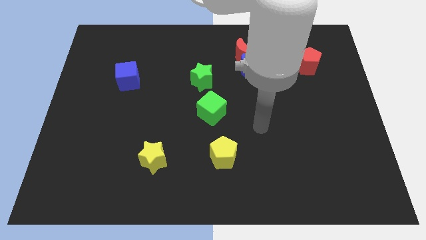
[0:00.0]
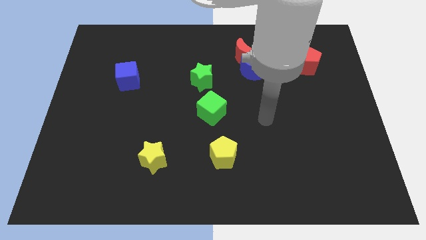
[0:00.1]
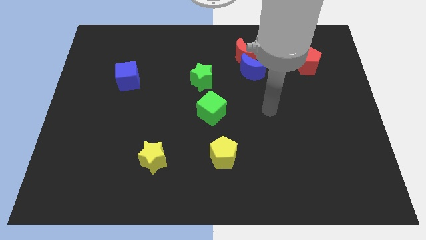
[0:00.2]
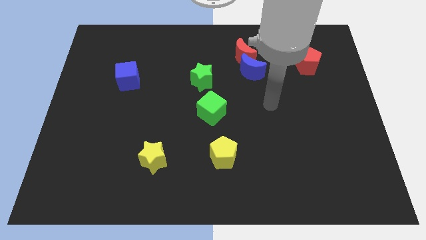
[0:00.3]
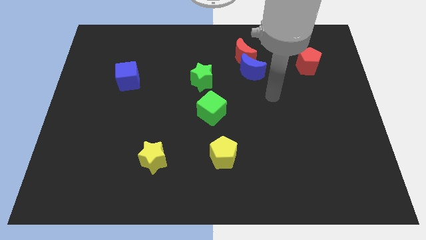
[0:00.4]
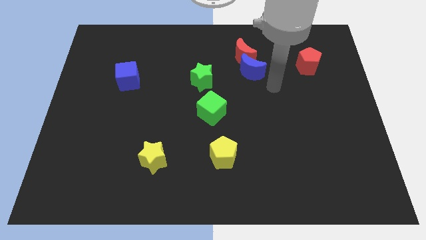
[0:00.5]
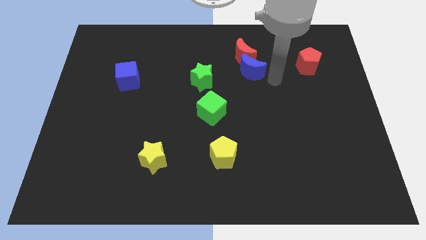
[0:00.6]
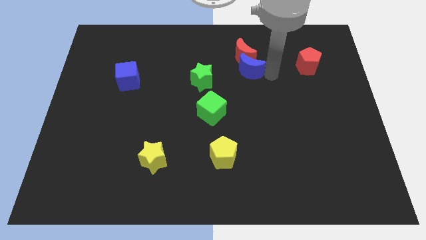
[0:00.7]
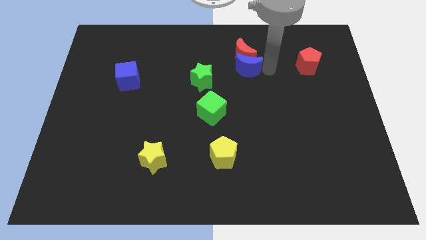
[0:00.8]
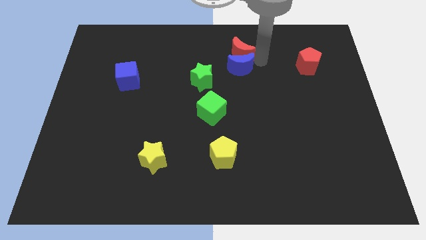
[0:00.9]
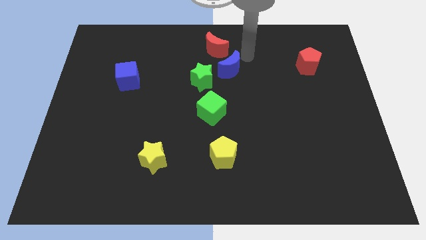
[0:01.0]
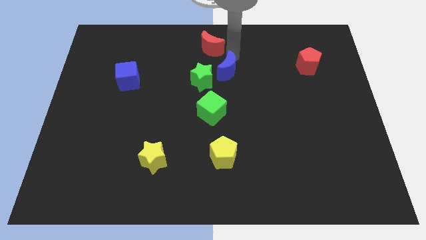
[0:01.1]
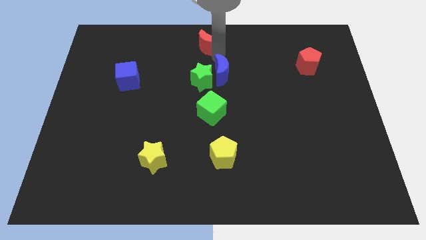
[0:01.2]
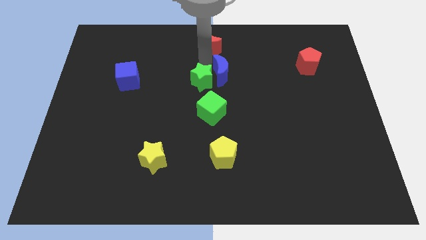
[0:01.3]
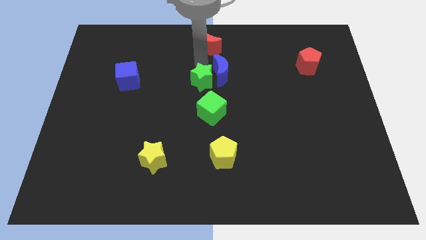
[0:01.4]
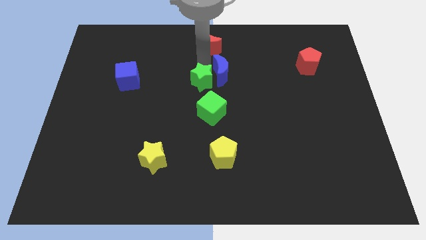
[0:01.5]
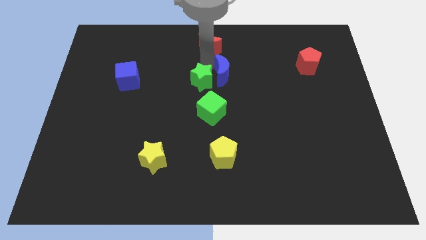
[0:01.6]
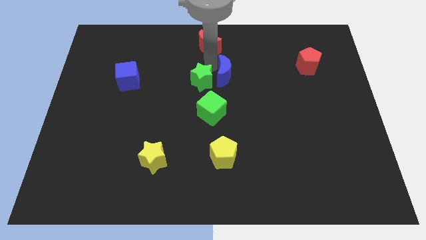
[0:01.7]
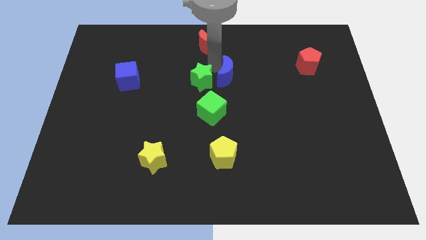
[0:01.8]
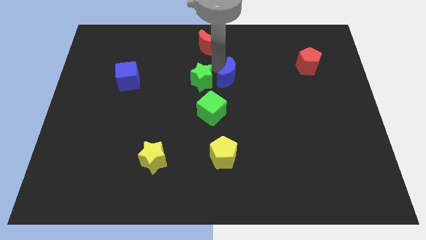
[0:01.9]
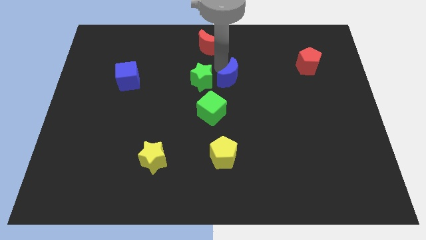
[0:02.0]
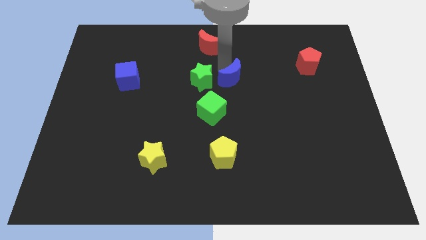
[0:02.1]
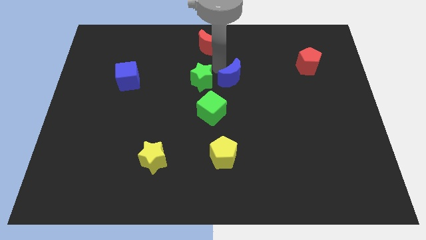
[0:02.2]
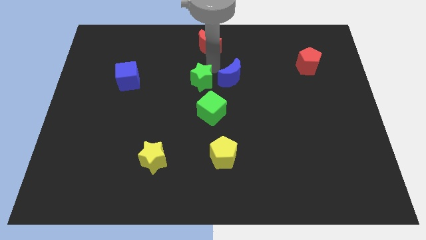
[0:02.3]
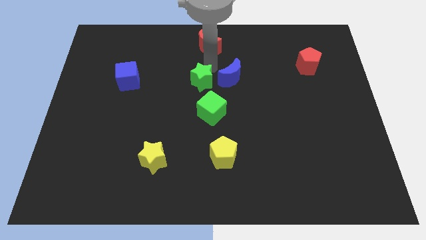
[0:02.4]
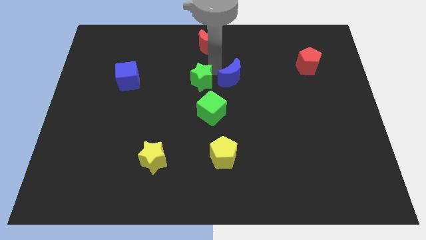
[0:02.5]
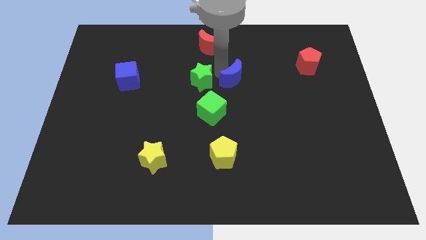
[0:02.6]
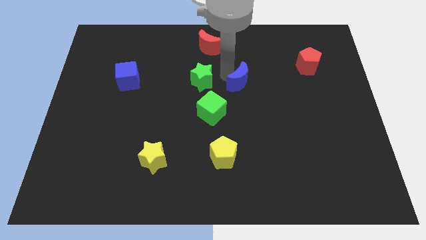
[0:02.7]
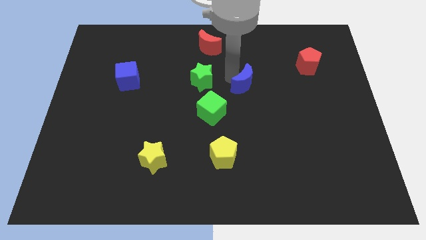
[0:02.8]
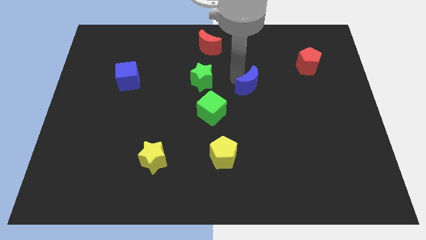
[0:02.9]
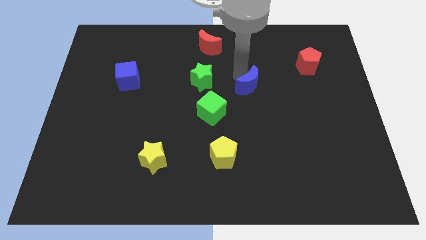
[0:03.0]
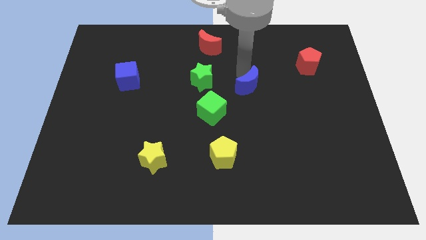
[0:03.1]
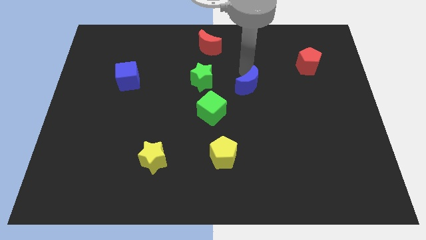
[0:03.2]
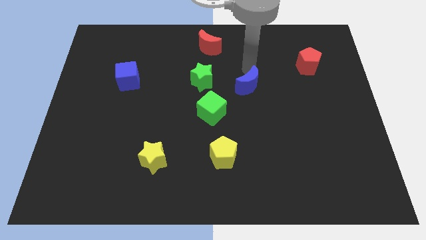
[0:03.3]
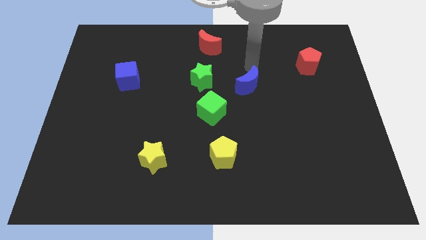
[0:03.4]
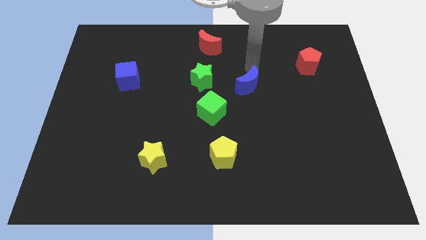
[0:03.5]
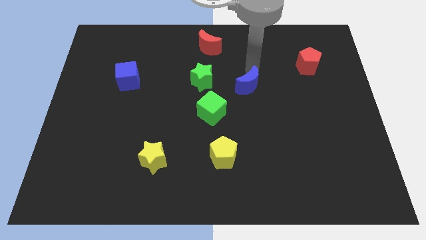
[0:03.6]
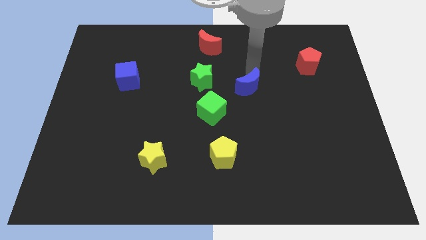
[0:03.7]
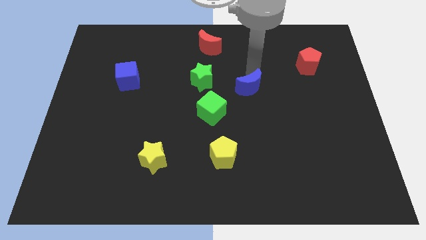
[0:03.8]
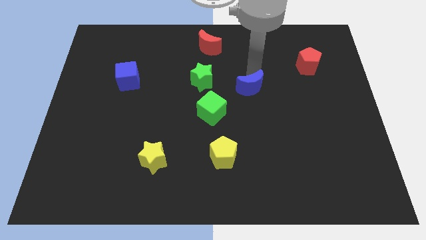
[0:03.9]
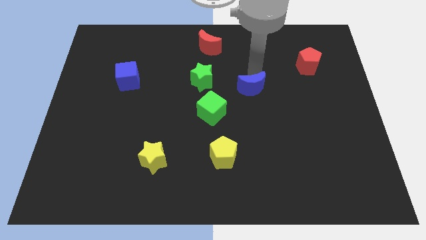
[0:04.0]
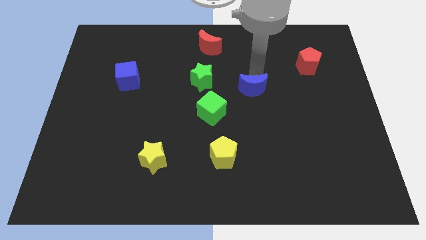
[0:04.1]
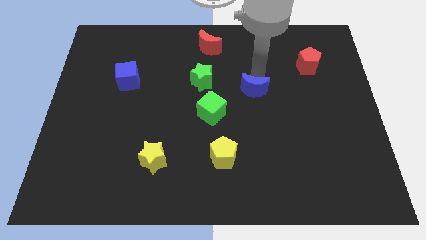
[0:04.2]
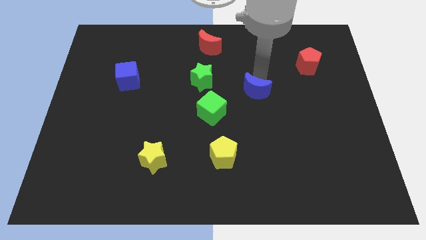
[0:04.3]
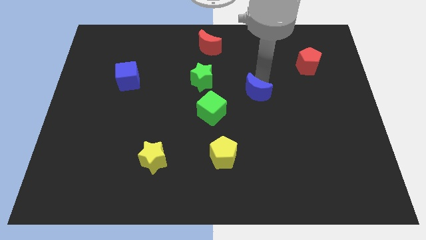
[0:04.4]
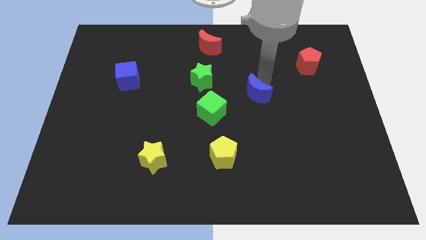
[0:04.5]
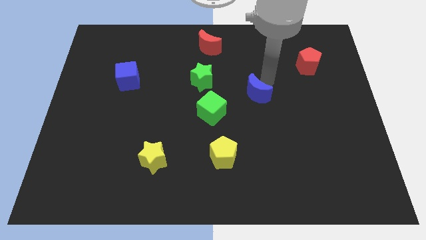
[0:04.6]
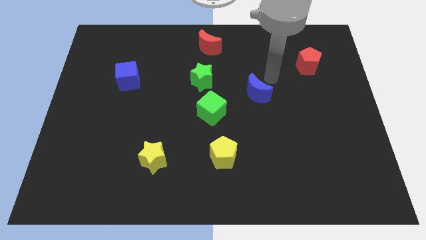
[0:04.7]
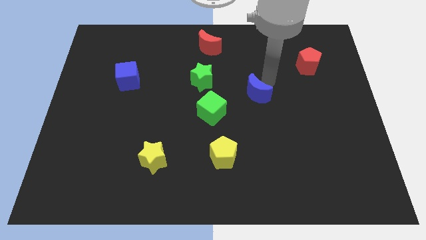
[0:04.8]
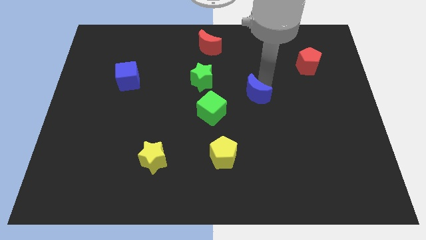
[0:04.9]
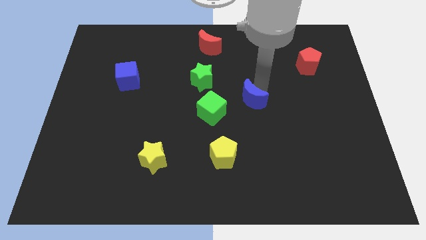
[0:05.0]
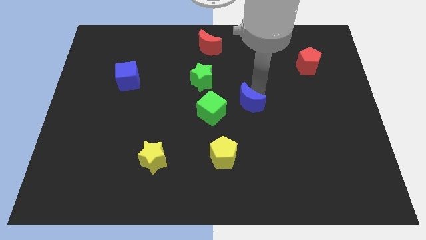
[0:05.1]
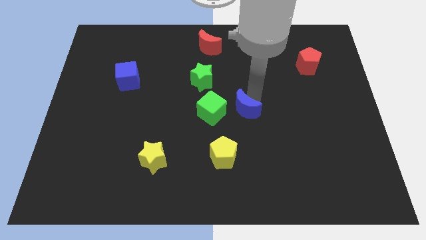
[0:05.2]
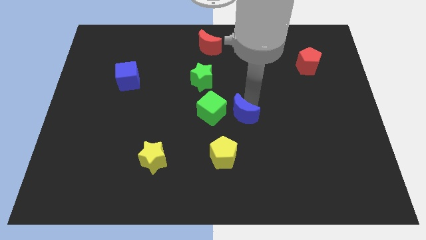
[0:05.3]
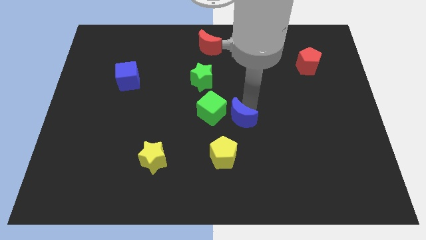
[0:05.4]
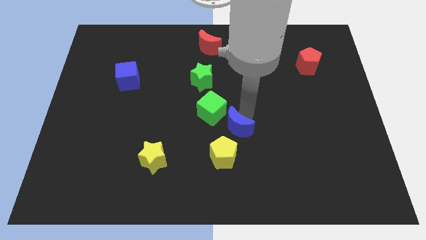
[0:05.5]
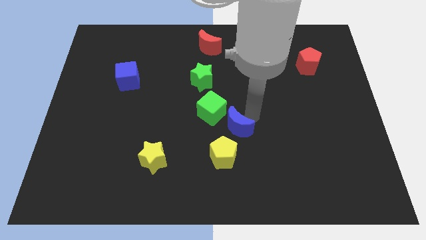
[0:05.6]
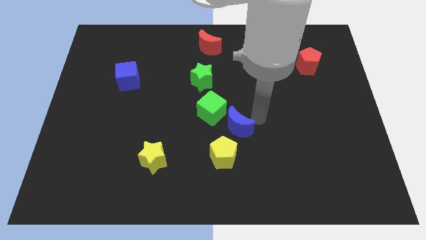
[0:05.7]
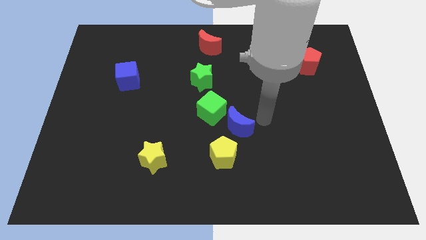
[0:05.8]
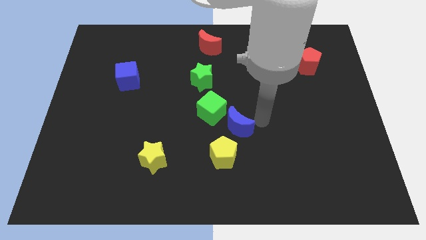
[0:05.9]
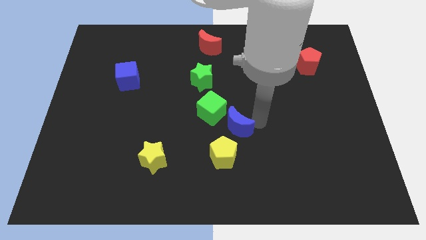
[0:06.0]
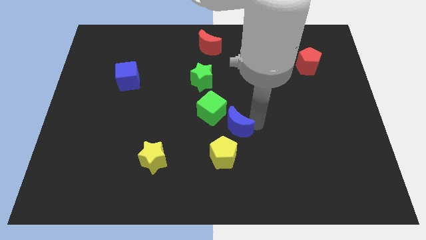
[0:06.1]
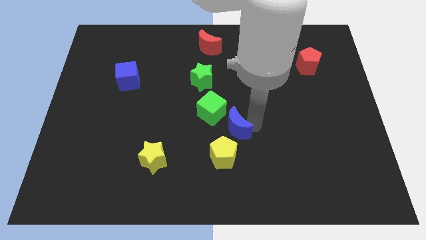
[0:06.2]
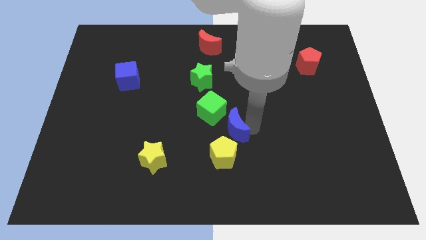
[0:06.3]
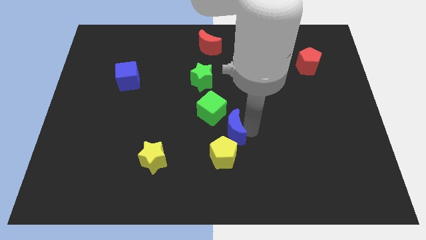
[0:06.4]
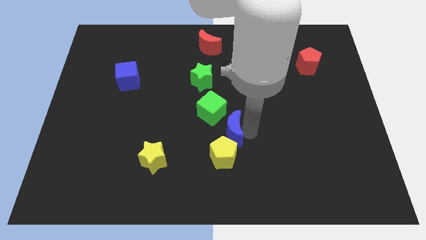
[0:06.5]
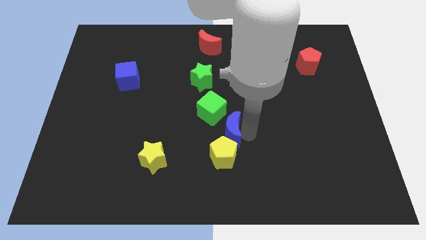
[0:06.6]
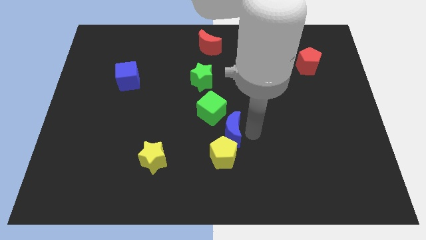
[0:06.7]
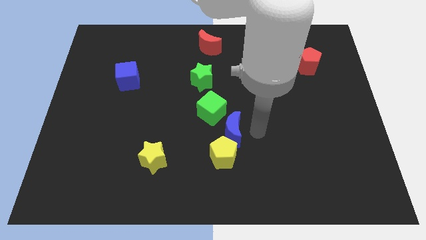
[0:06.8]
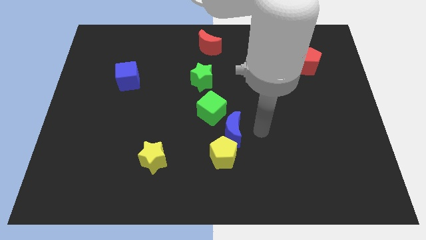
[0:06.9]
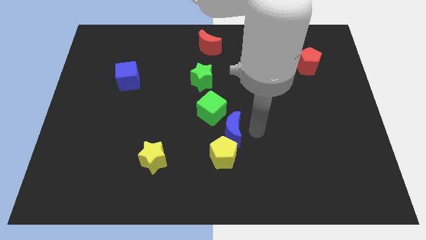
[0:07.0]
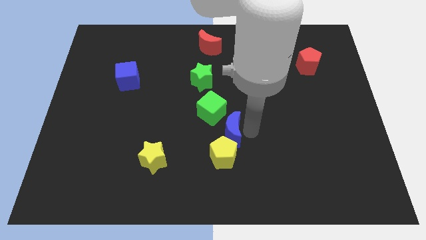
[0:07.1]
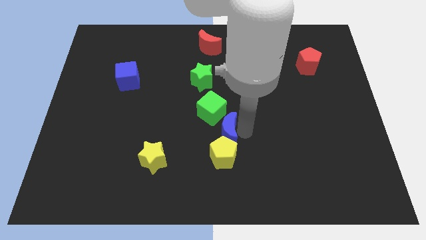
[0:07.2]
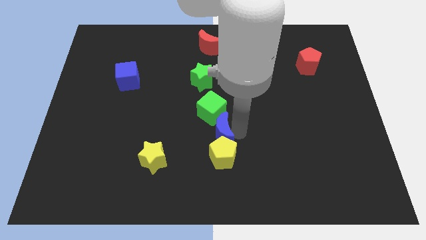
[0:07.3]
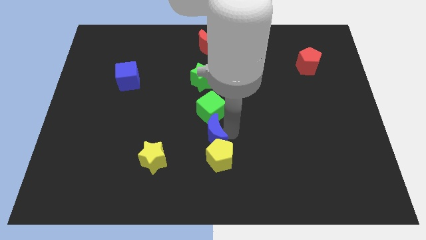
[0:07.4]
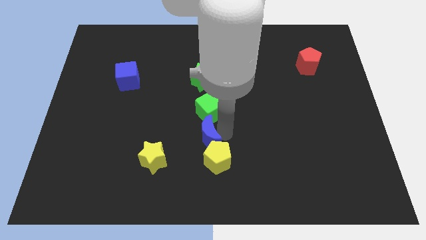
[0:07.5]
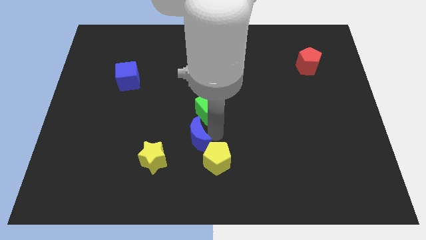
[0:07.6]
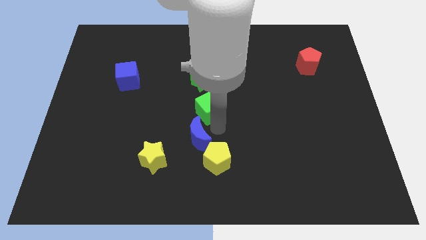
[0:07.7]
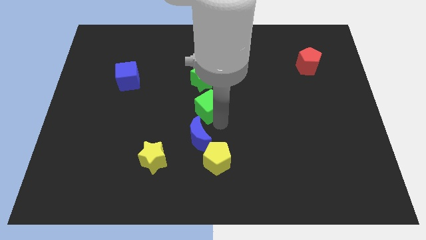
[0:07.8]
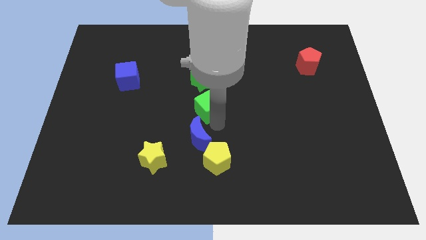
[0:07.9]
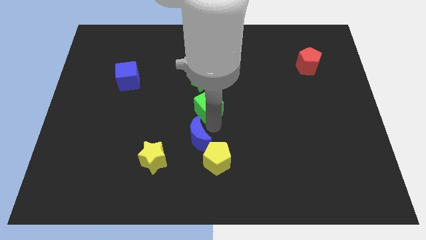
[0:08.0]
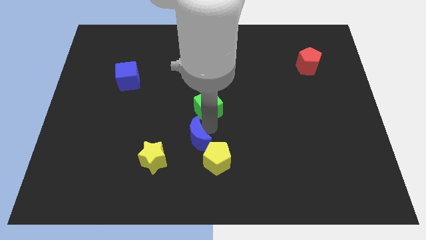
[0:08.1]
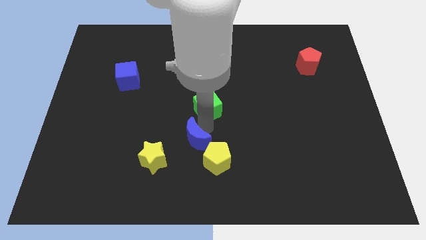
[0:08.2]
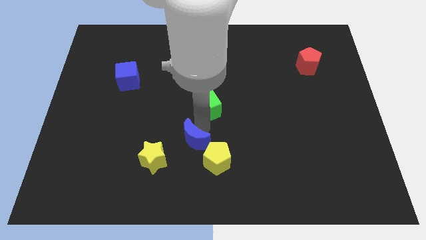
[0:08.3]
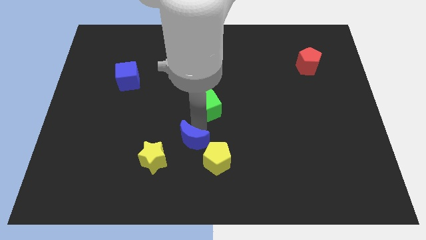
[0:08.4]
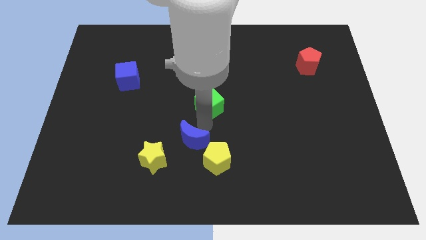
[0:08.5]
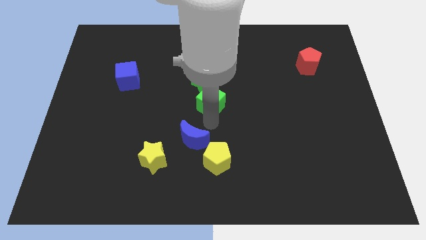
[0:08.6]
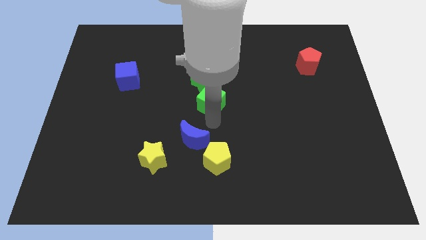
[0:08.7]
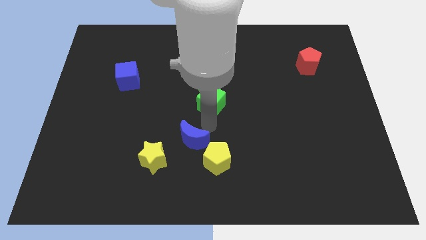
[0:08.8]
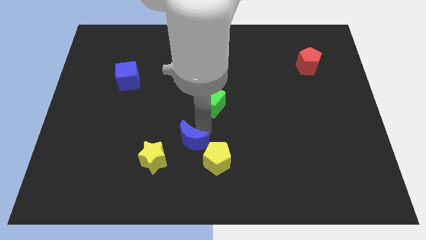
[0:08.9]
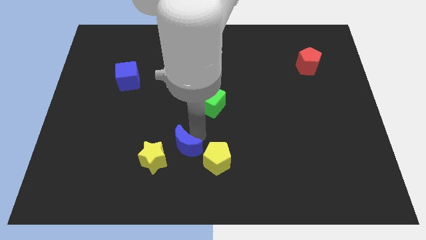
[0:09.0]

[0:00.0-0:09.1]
push the blue moon to the left side of the yellow pentagon
